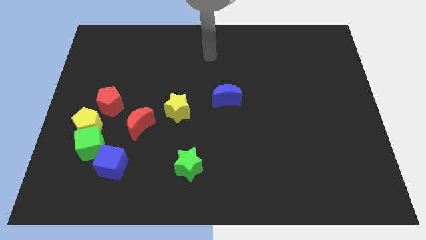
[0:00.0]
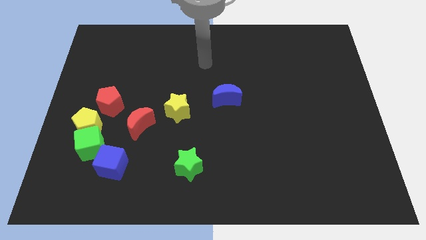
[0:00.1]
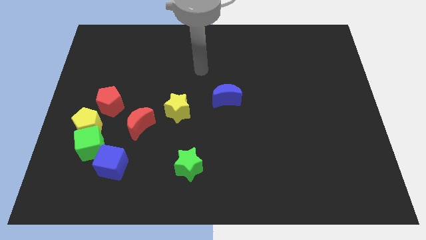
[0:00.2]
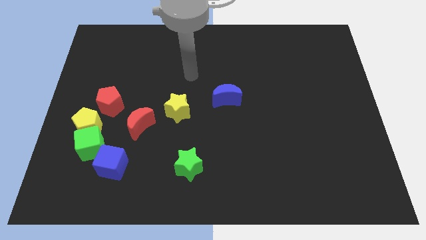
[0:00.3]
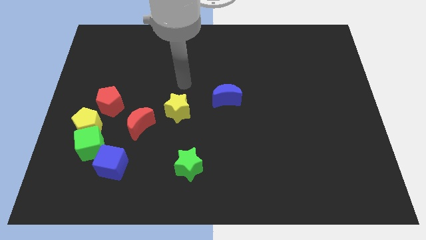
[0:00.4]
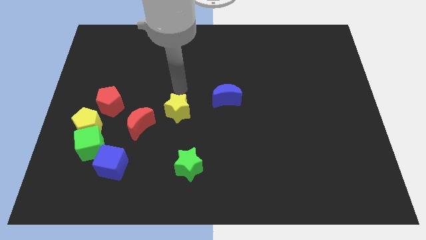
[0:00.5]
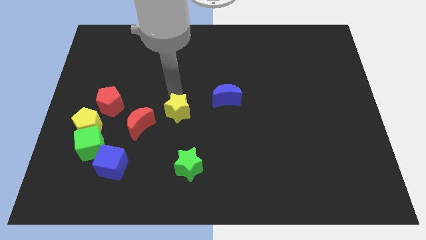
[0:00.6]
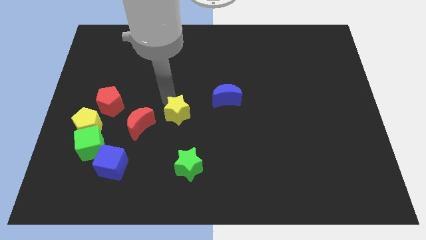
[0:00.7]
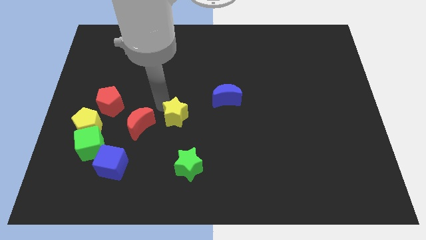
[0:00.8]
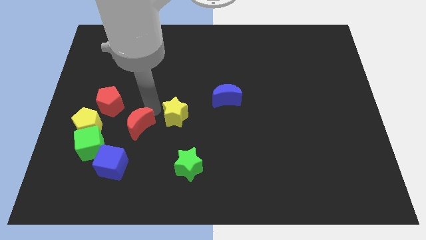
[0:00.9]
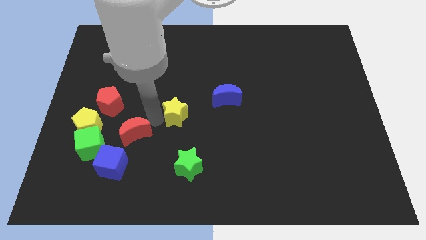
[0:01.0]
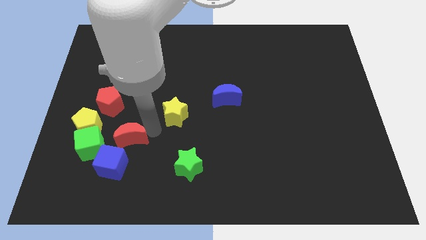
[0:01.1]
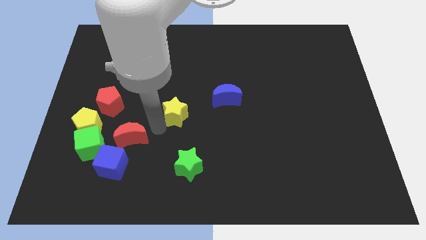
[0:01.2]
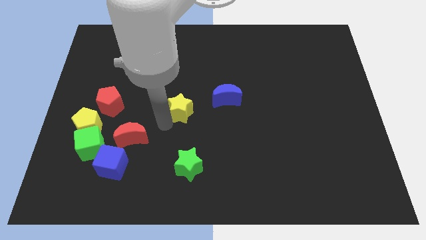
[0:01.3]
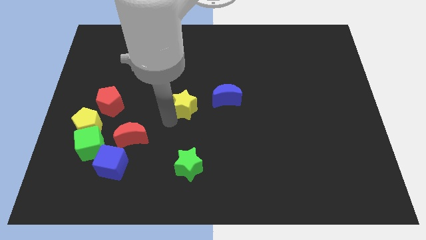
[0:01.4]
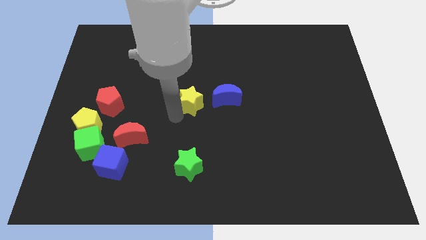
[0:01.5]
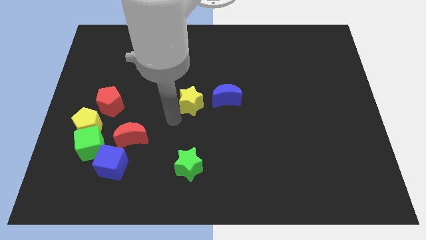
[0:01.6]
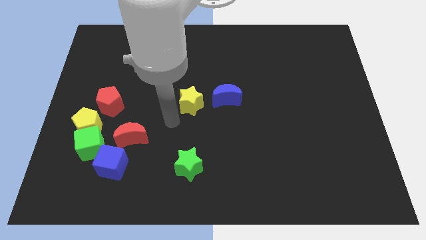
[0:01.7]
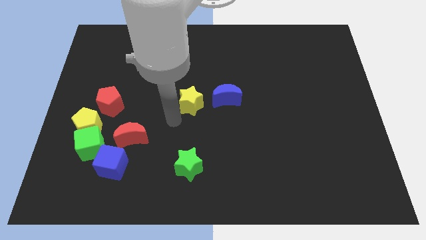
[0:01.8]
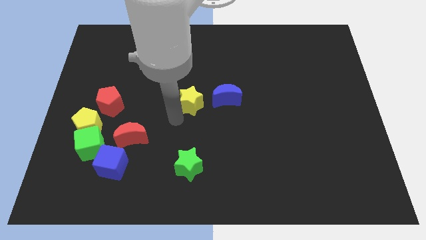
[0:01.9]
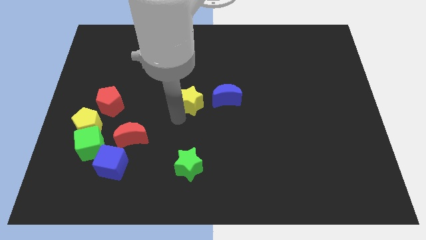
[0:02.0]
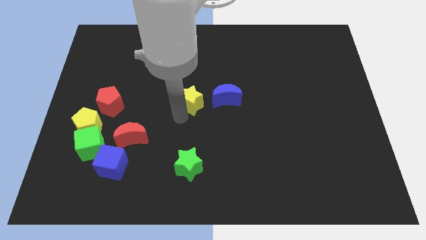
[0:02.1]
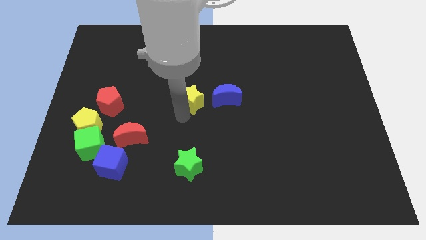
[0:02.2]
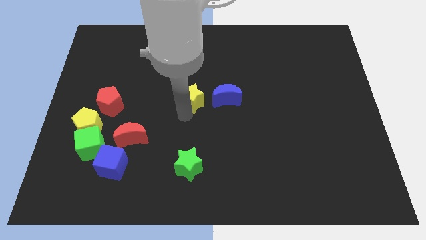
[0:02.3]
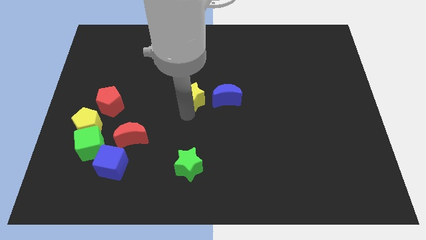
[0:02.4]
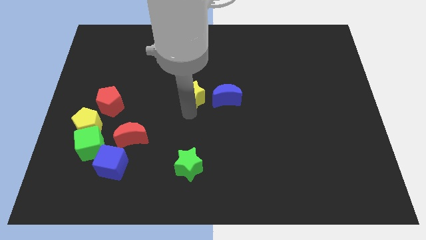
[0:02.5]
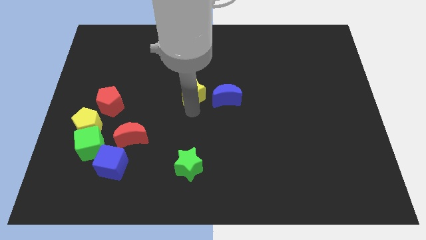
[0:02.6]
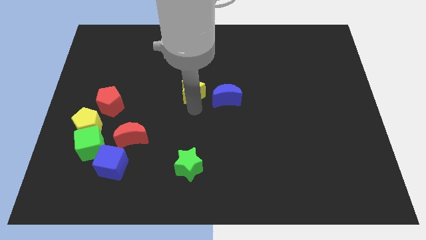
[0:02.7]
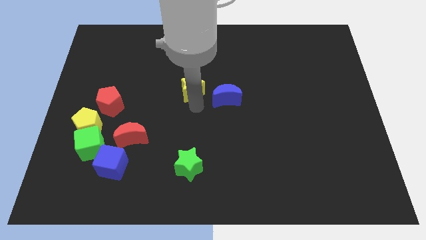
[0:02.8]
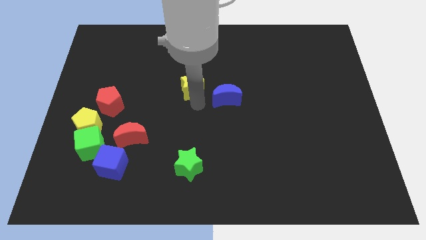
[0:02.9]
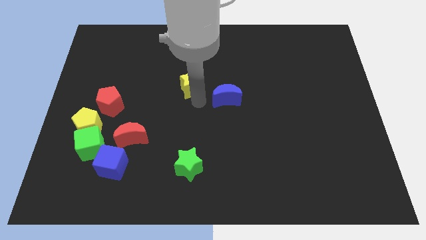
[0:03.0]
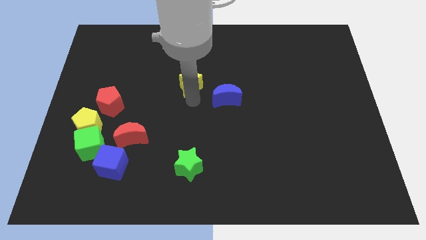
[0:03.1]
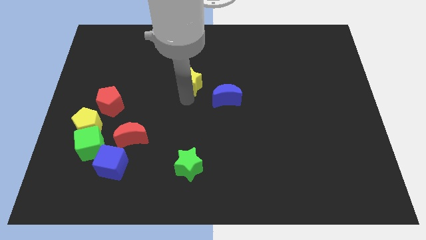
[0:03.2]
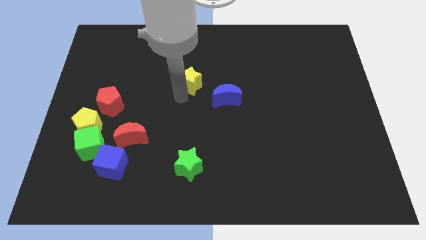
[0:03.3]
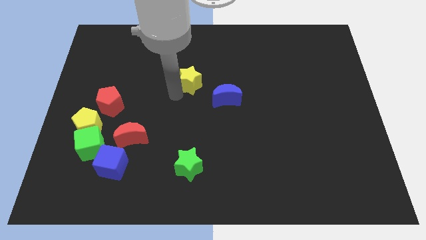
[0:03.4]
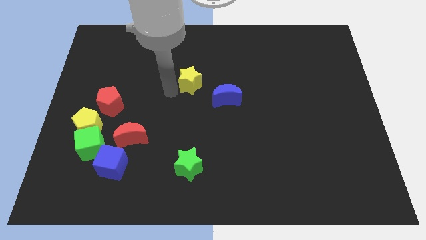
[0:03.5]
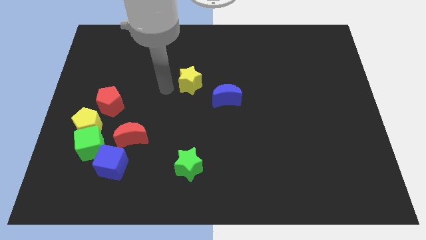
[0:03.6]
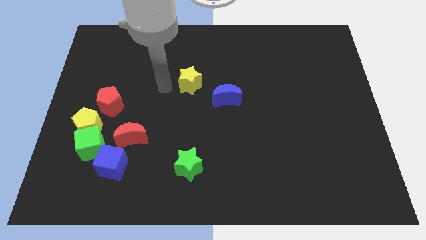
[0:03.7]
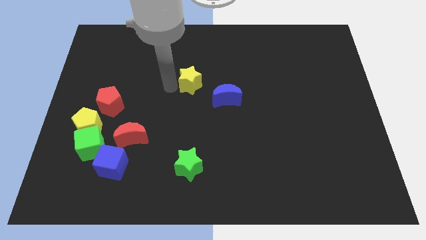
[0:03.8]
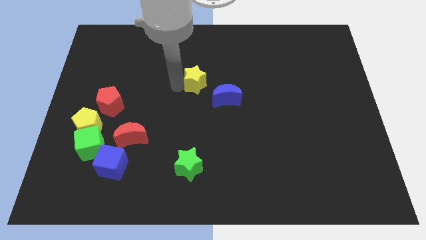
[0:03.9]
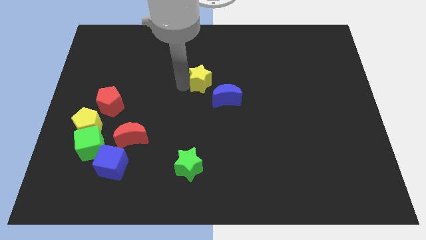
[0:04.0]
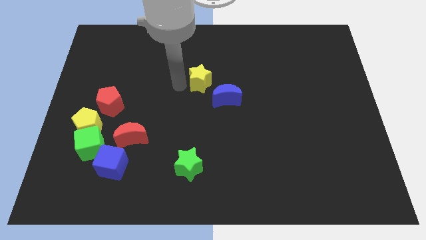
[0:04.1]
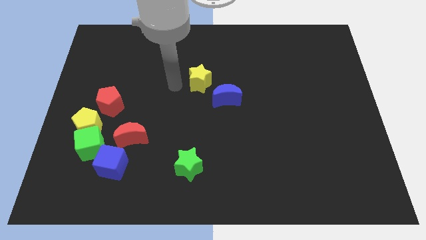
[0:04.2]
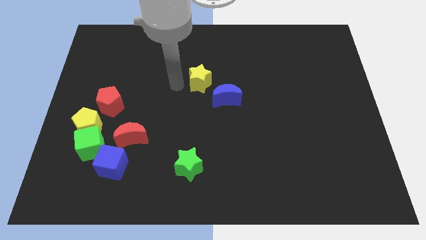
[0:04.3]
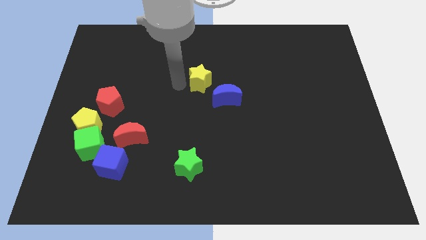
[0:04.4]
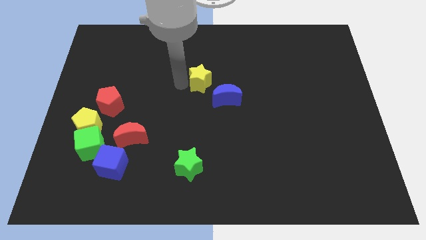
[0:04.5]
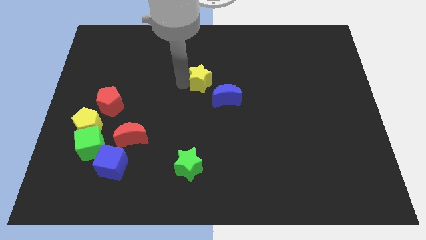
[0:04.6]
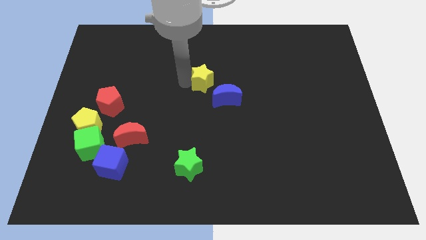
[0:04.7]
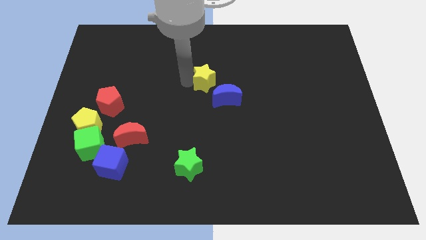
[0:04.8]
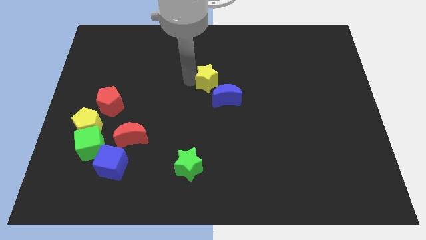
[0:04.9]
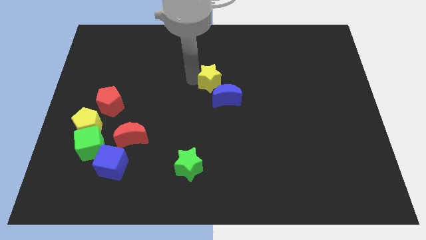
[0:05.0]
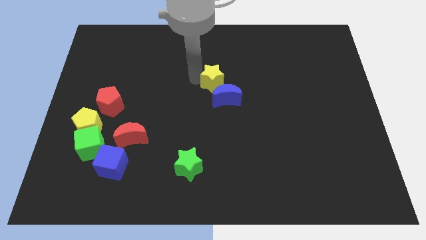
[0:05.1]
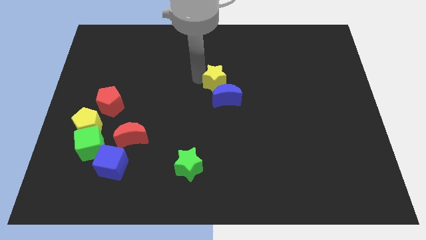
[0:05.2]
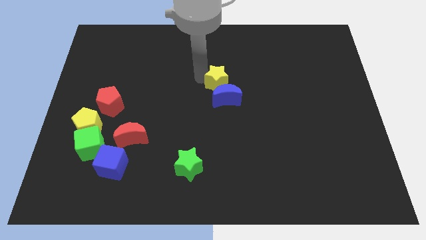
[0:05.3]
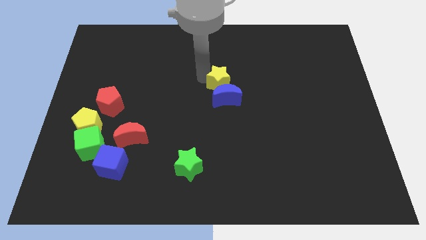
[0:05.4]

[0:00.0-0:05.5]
move the yellow star to the top right side of the blue moon

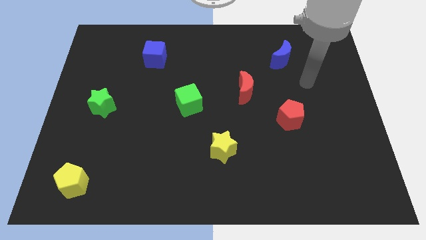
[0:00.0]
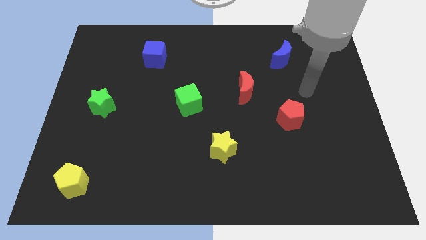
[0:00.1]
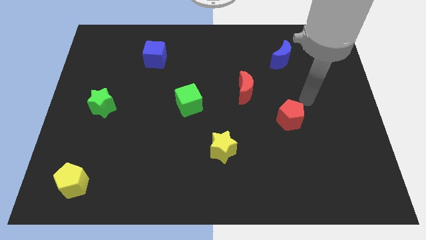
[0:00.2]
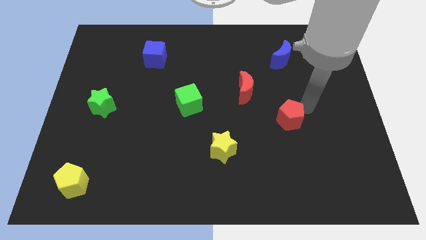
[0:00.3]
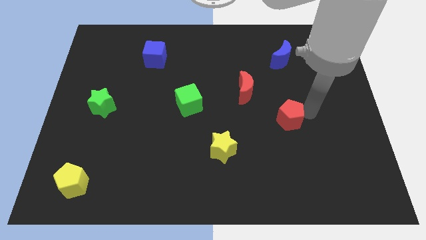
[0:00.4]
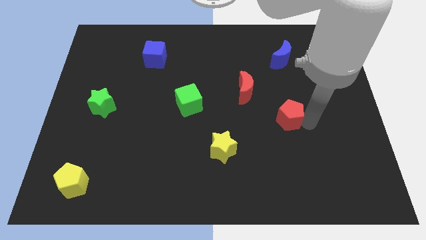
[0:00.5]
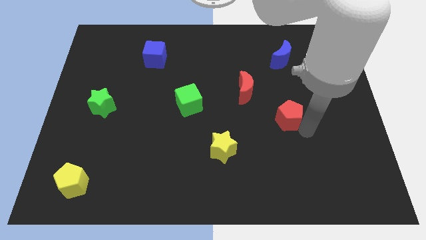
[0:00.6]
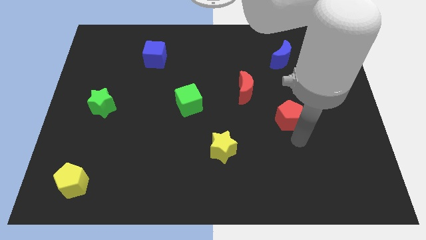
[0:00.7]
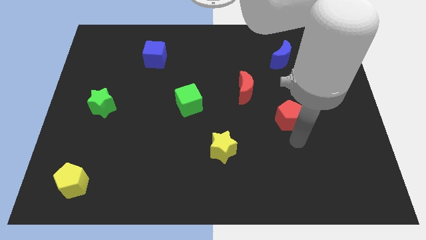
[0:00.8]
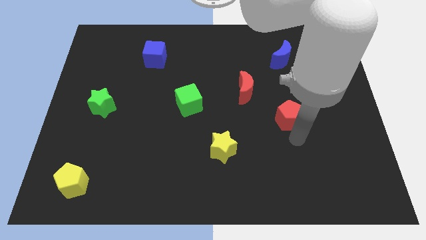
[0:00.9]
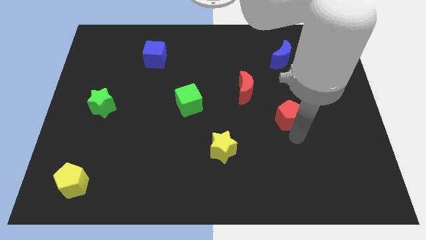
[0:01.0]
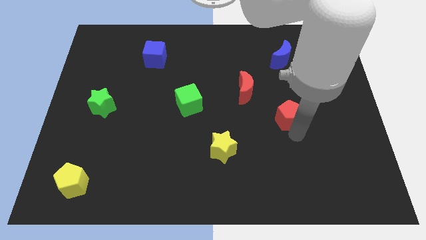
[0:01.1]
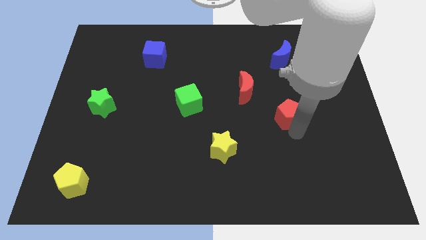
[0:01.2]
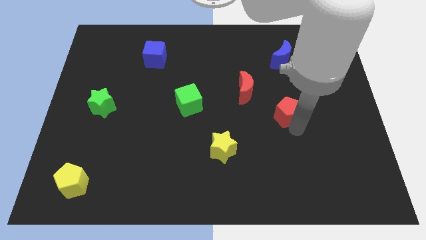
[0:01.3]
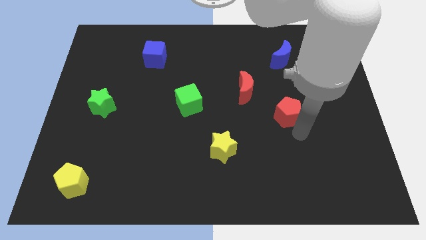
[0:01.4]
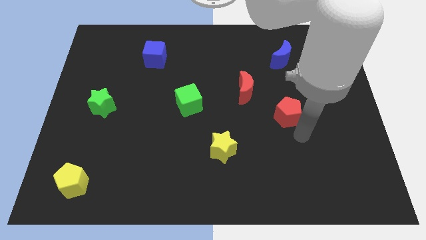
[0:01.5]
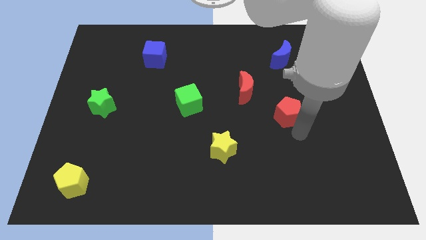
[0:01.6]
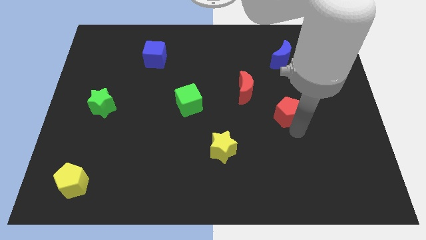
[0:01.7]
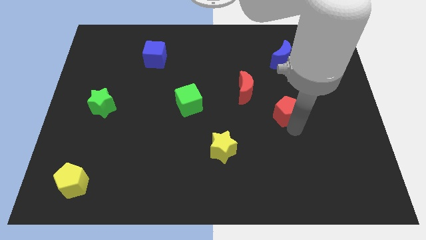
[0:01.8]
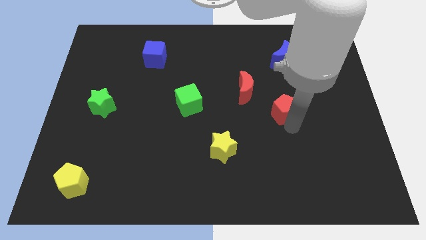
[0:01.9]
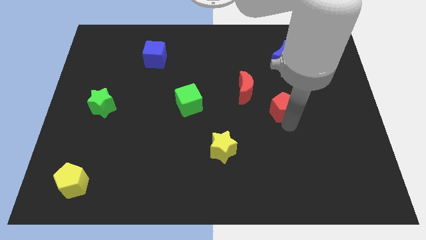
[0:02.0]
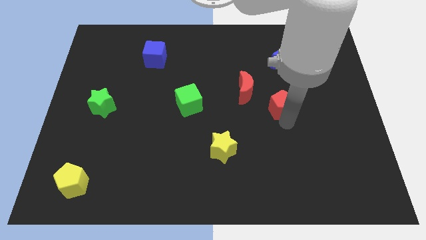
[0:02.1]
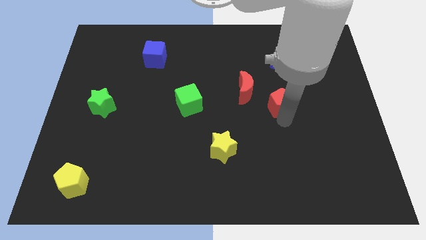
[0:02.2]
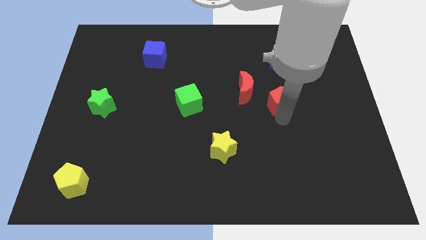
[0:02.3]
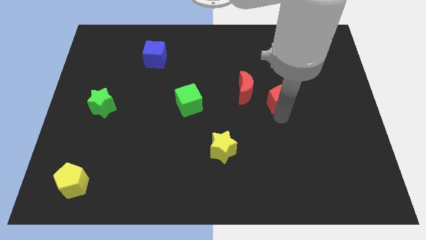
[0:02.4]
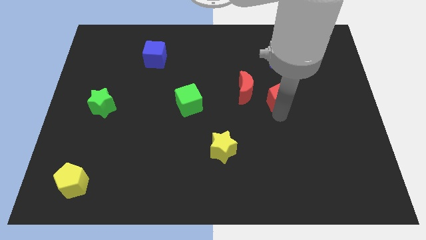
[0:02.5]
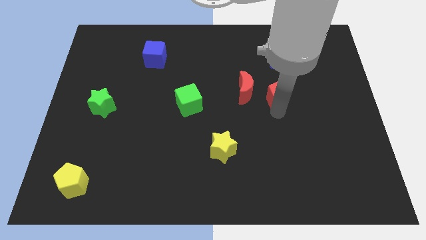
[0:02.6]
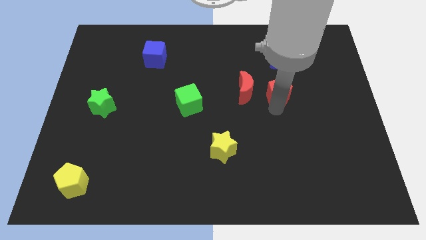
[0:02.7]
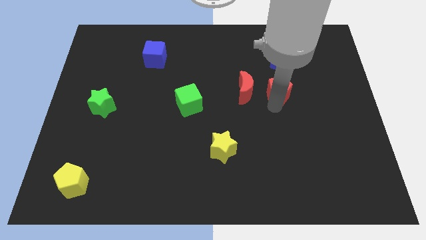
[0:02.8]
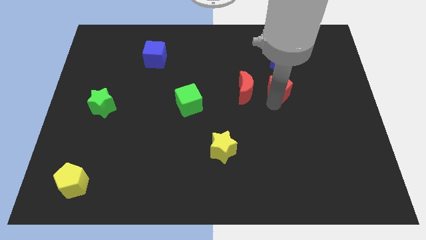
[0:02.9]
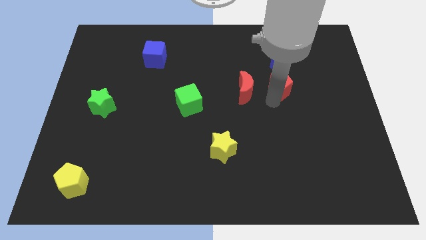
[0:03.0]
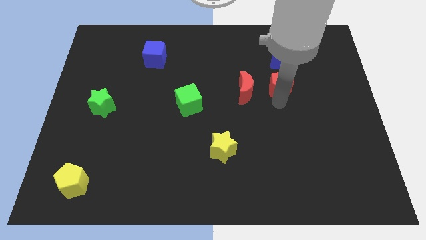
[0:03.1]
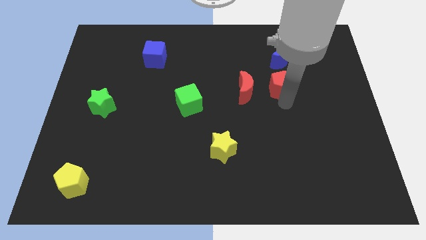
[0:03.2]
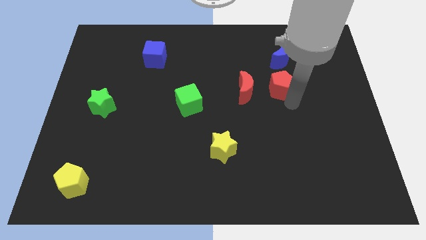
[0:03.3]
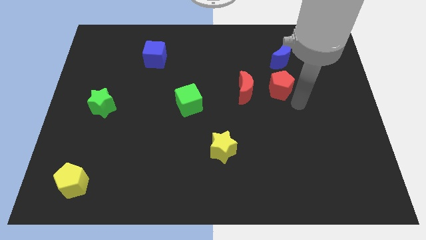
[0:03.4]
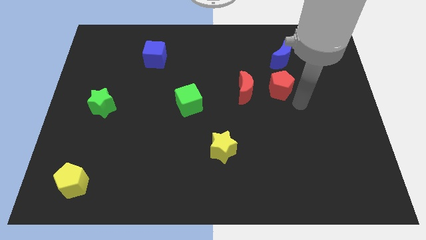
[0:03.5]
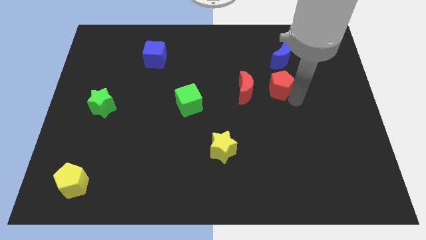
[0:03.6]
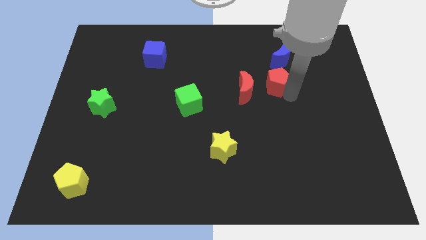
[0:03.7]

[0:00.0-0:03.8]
put the red pentagon to the top right side of the red moon
